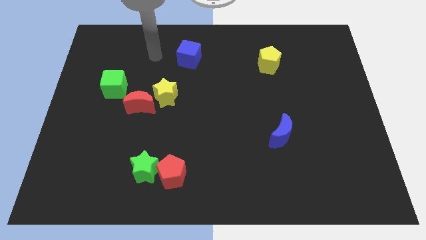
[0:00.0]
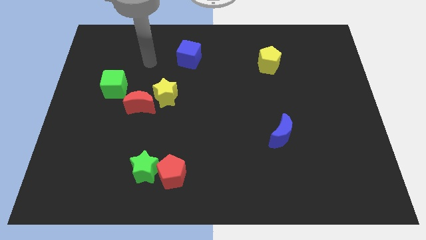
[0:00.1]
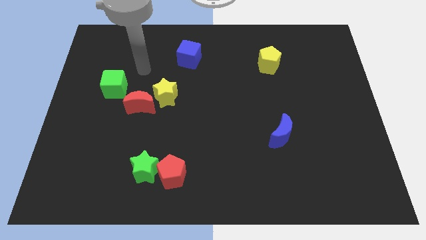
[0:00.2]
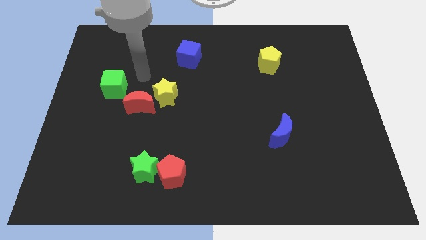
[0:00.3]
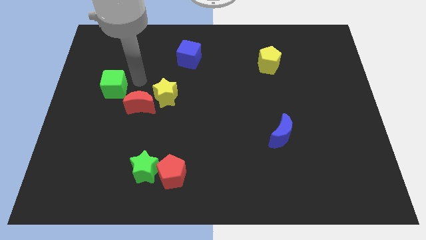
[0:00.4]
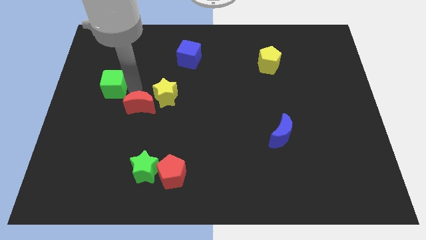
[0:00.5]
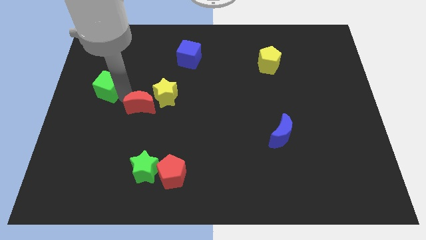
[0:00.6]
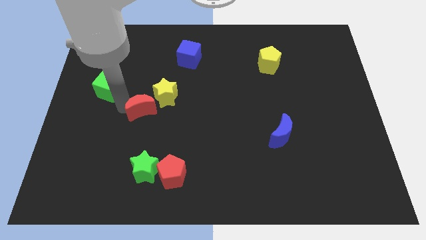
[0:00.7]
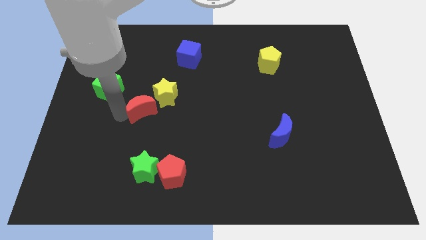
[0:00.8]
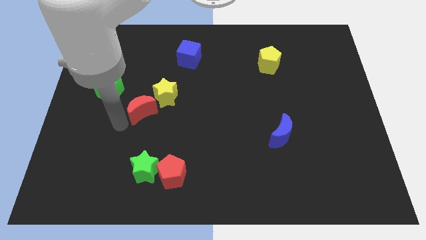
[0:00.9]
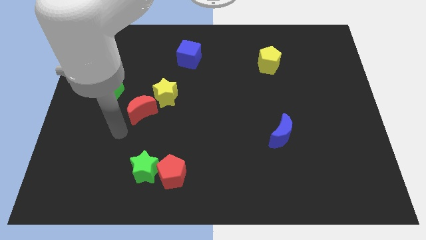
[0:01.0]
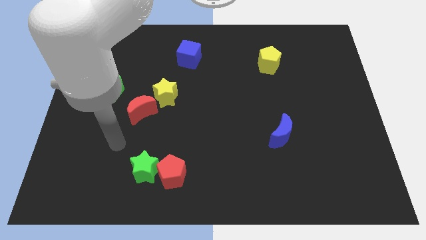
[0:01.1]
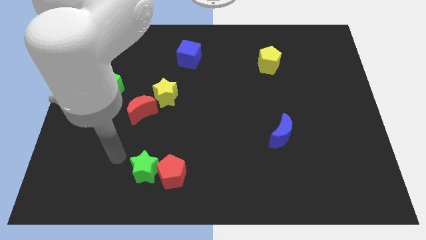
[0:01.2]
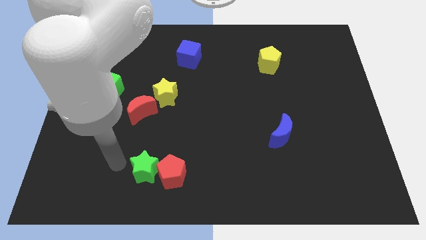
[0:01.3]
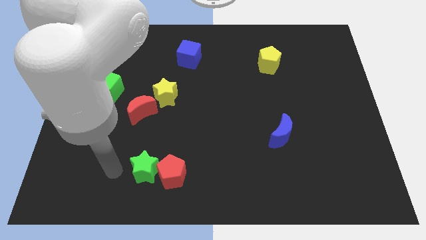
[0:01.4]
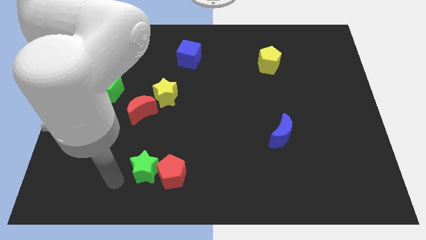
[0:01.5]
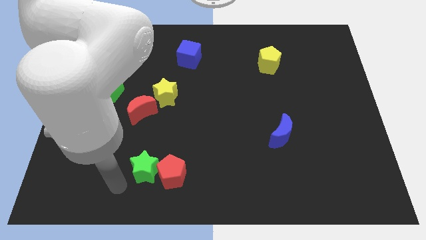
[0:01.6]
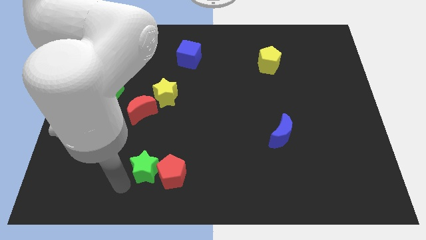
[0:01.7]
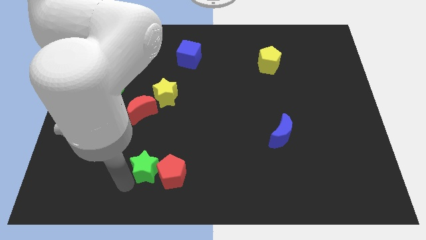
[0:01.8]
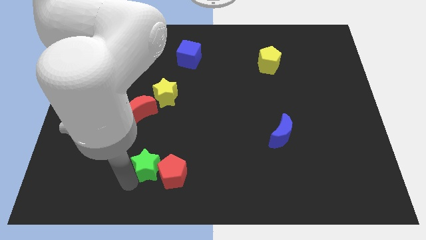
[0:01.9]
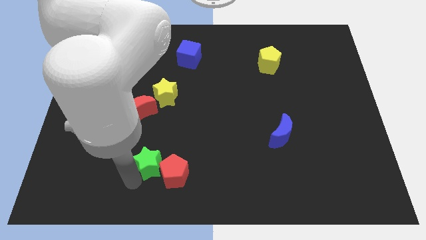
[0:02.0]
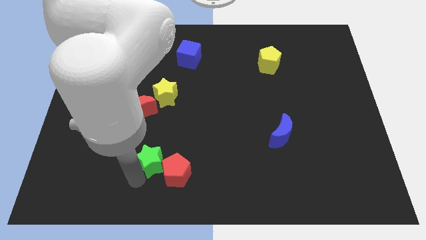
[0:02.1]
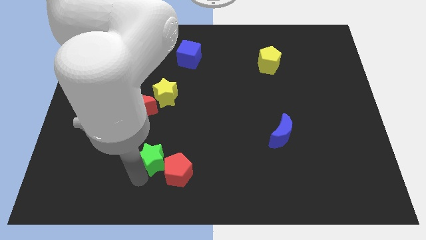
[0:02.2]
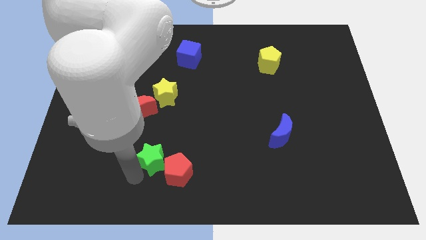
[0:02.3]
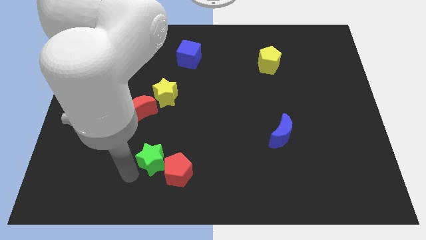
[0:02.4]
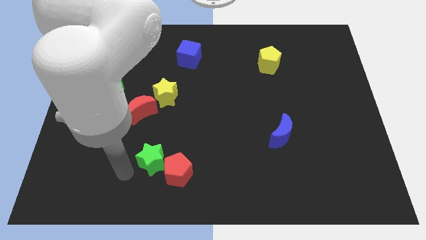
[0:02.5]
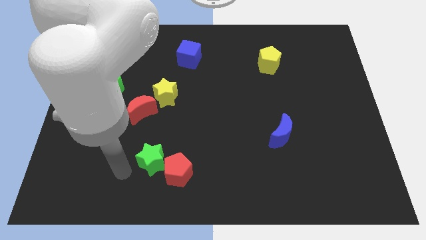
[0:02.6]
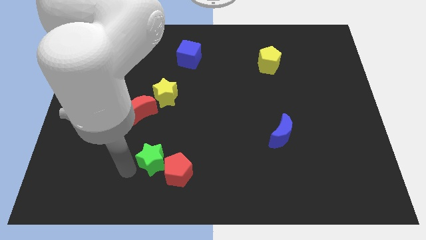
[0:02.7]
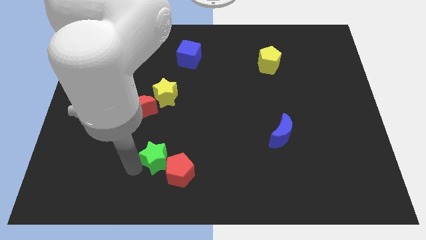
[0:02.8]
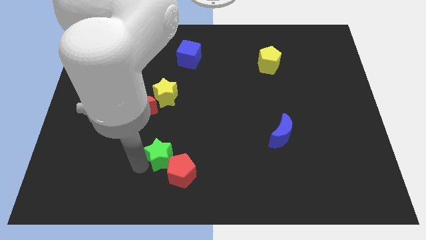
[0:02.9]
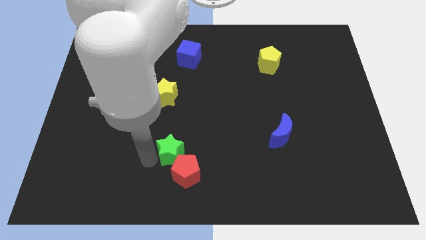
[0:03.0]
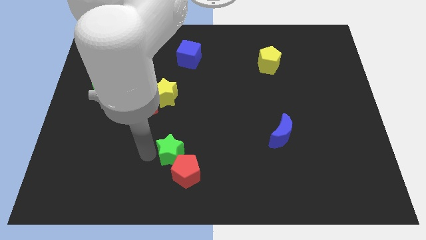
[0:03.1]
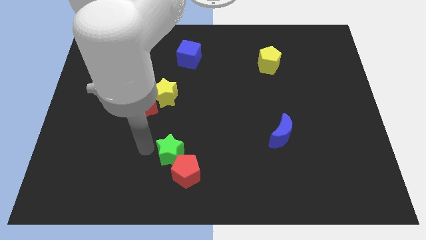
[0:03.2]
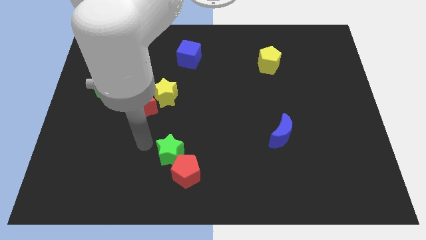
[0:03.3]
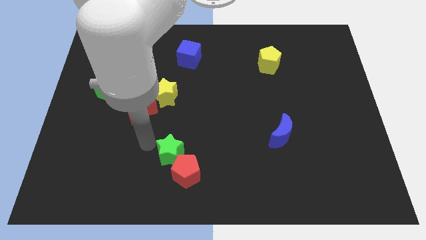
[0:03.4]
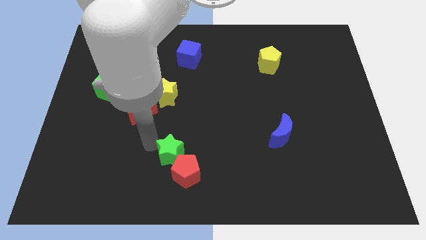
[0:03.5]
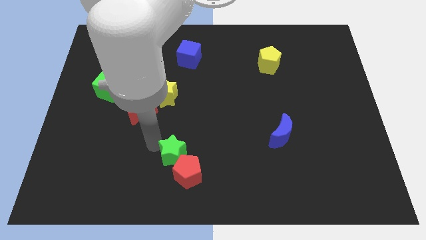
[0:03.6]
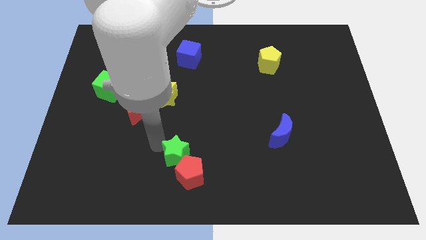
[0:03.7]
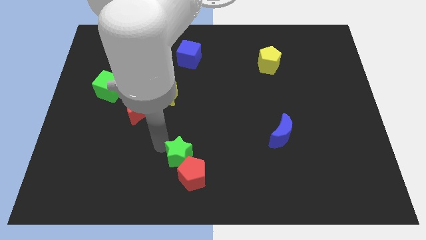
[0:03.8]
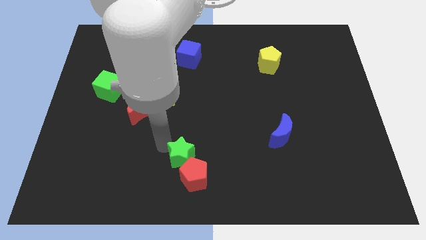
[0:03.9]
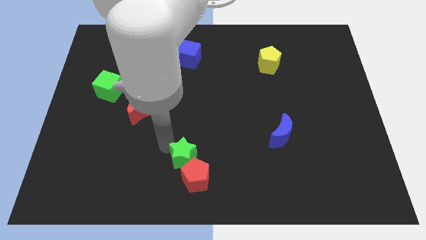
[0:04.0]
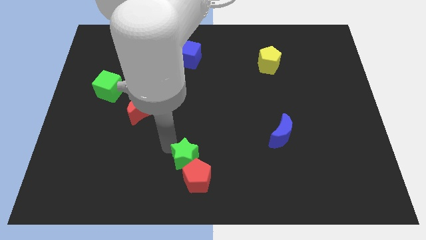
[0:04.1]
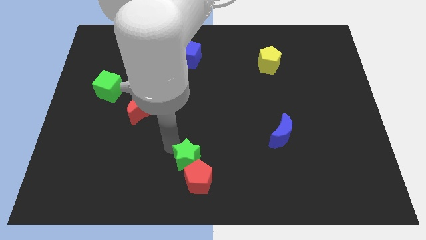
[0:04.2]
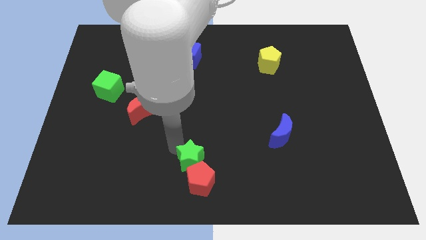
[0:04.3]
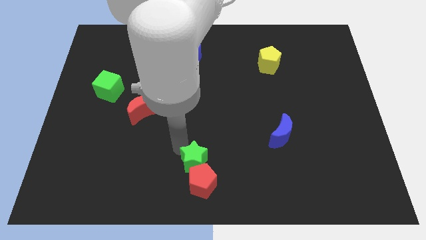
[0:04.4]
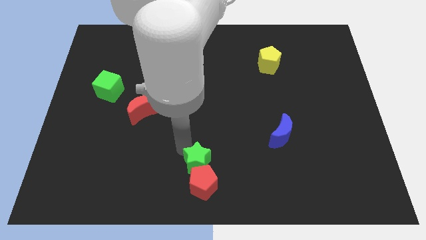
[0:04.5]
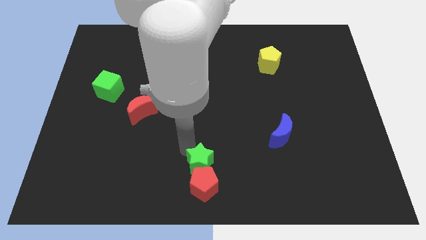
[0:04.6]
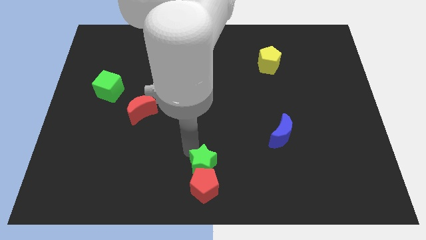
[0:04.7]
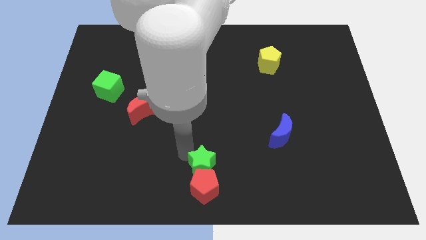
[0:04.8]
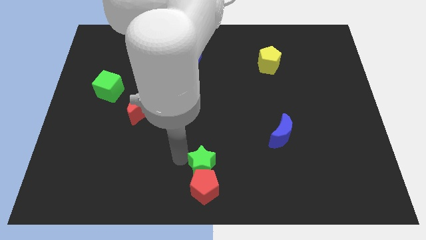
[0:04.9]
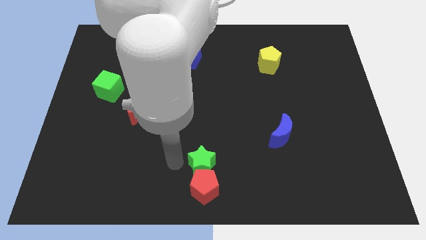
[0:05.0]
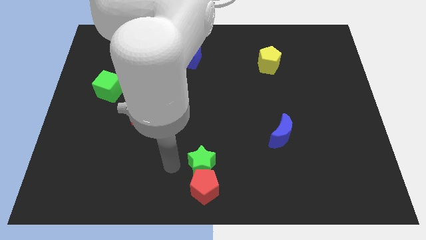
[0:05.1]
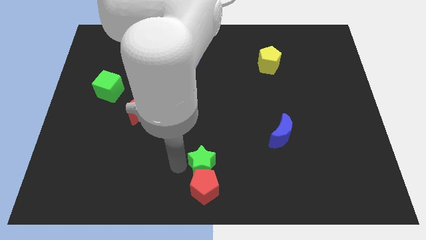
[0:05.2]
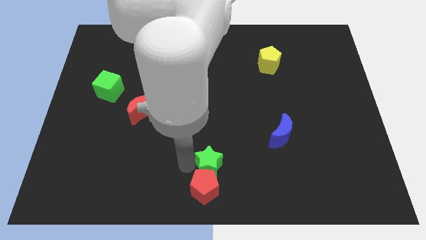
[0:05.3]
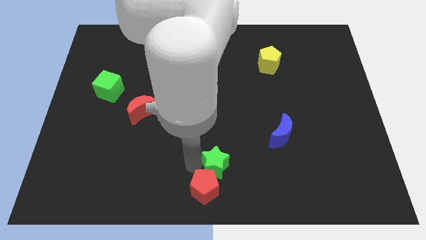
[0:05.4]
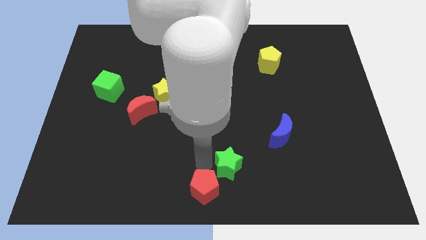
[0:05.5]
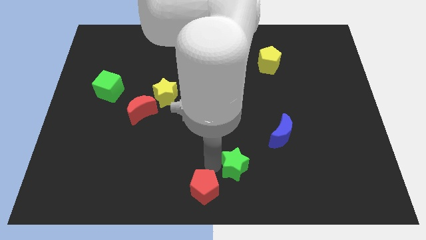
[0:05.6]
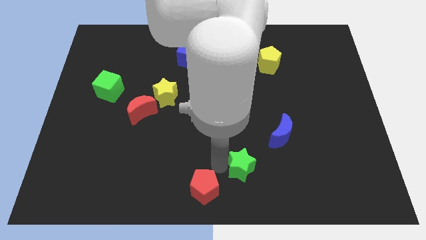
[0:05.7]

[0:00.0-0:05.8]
slide the green star to the right

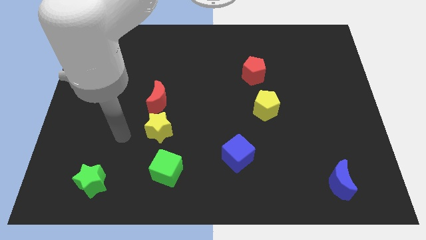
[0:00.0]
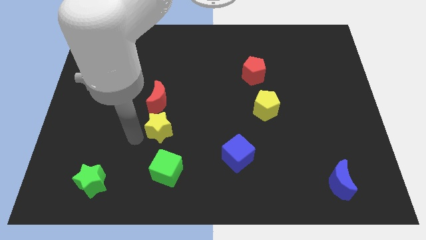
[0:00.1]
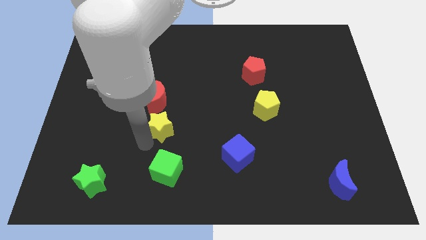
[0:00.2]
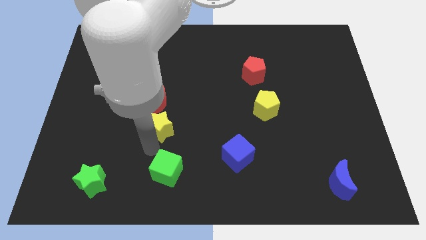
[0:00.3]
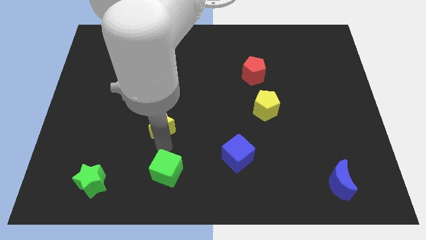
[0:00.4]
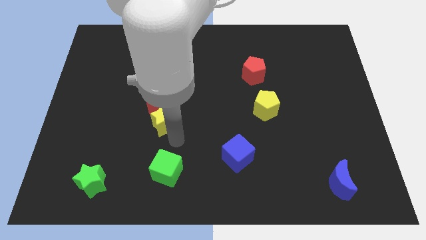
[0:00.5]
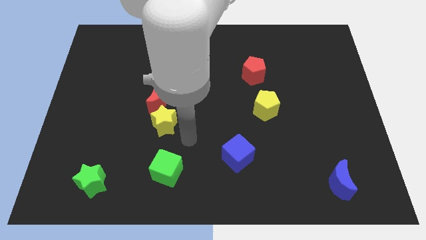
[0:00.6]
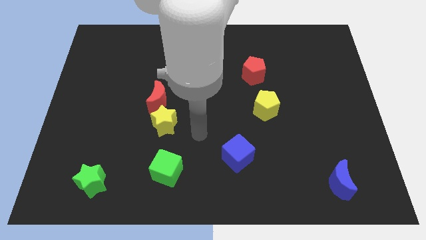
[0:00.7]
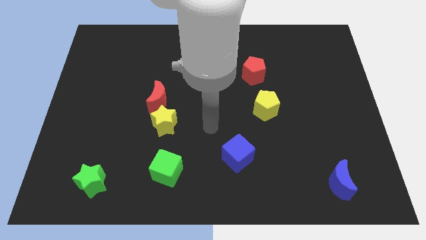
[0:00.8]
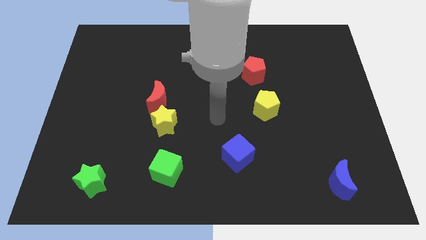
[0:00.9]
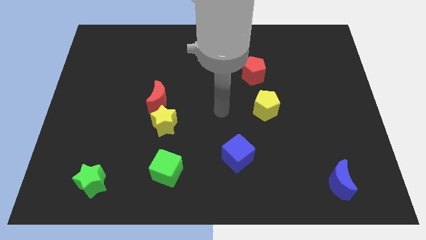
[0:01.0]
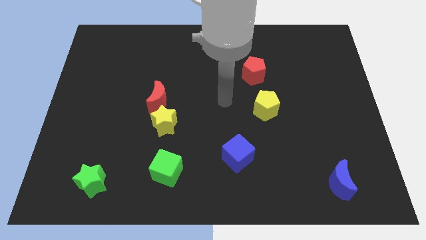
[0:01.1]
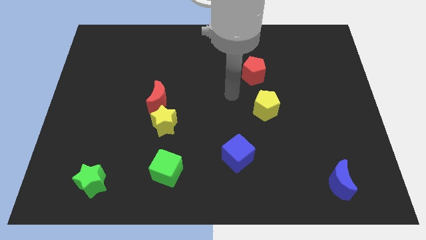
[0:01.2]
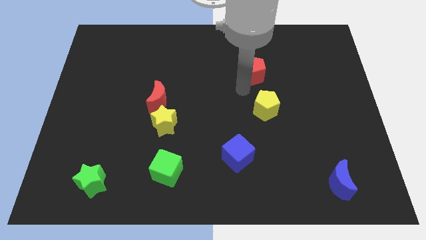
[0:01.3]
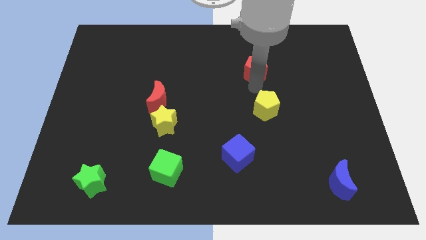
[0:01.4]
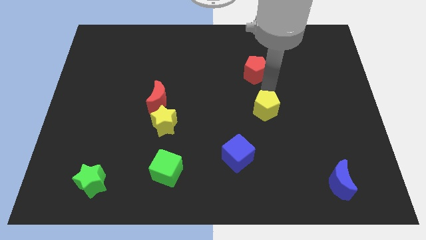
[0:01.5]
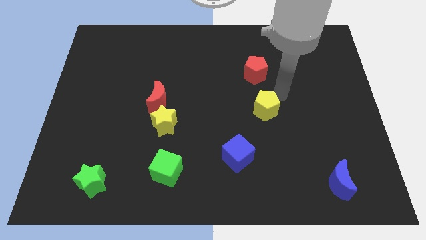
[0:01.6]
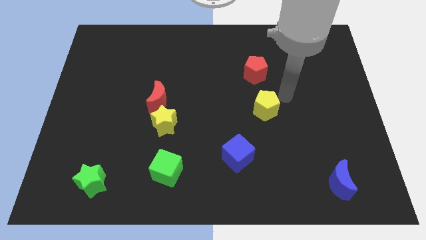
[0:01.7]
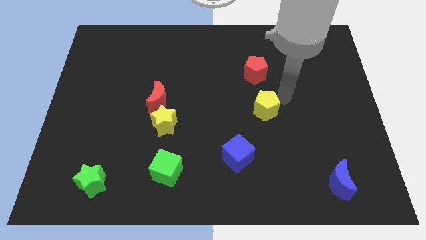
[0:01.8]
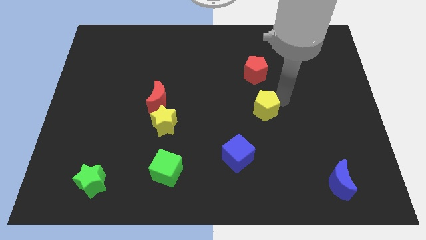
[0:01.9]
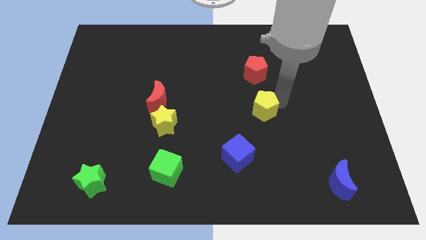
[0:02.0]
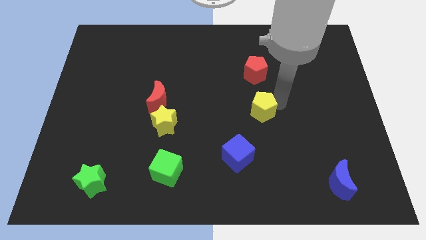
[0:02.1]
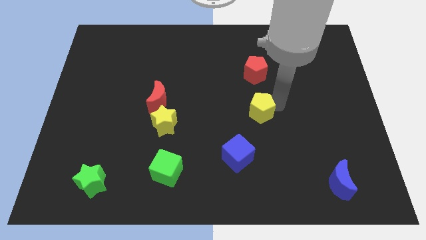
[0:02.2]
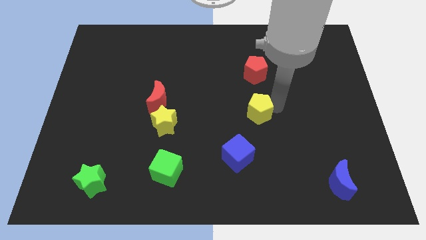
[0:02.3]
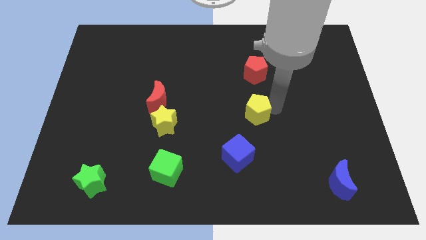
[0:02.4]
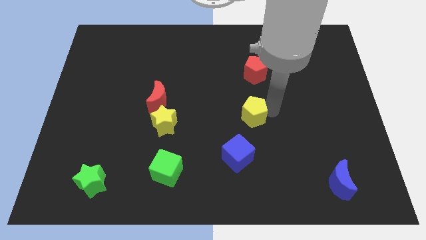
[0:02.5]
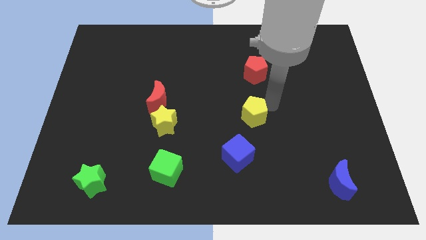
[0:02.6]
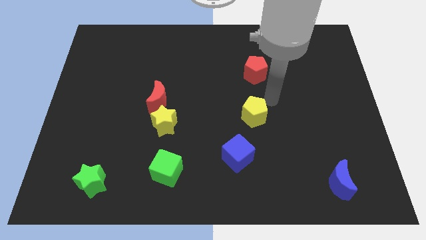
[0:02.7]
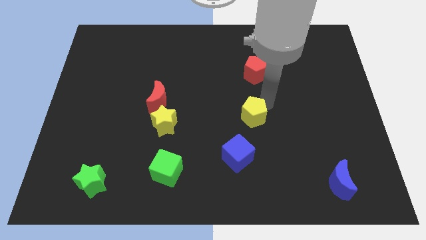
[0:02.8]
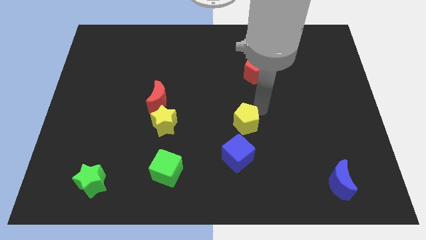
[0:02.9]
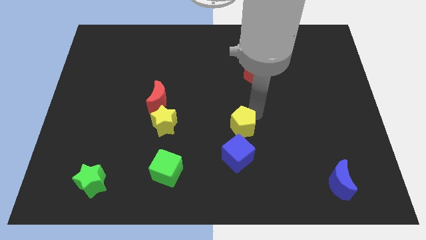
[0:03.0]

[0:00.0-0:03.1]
slide the yellow pentagon slightly diagonally downwards and to the left
